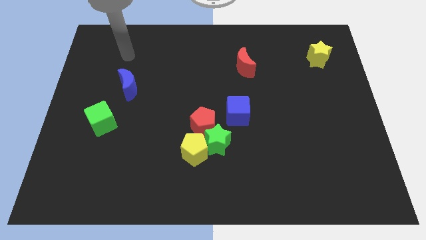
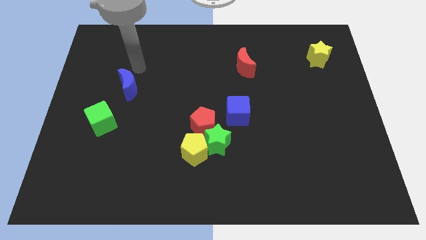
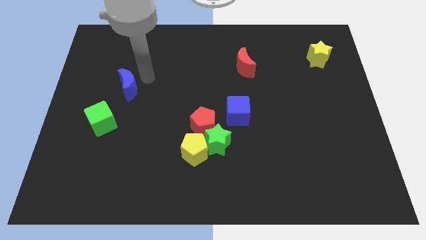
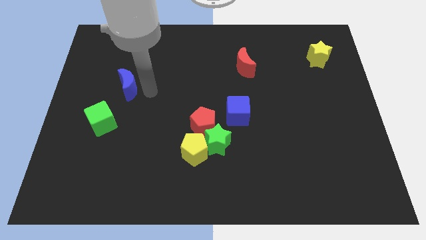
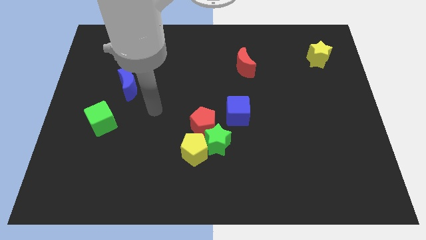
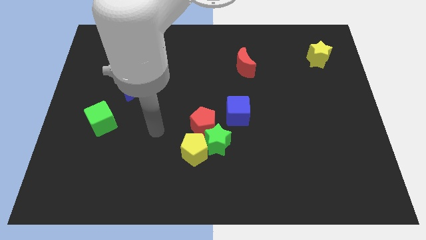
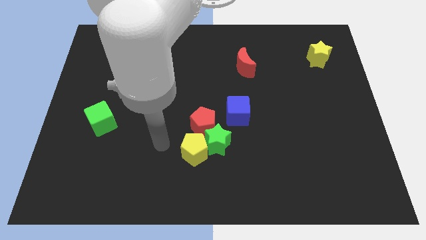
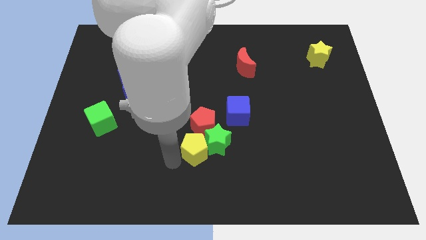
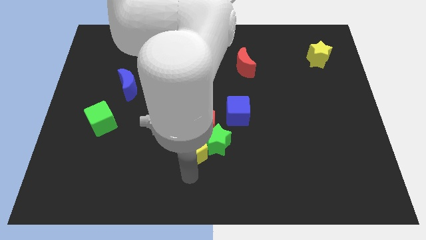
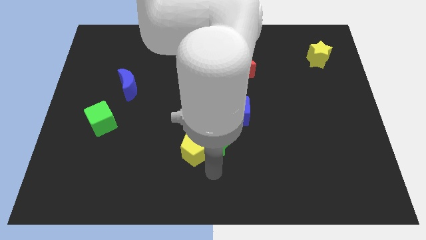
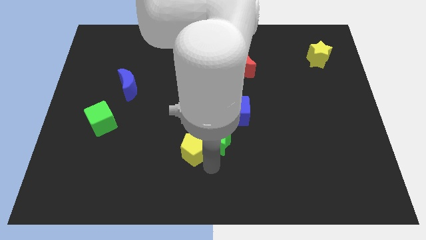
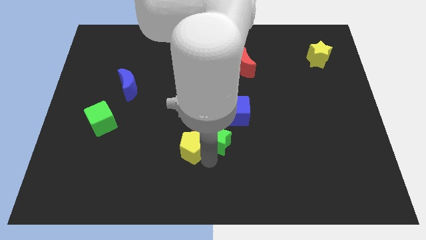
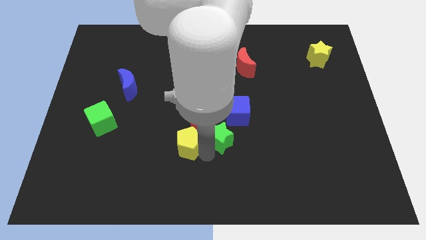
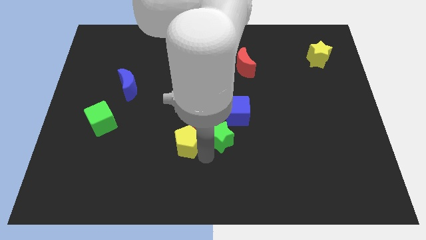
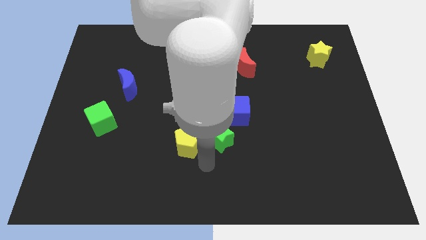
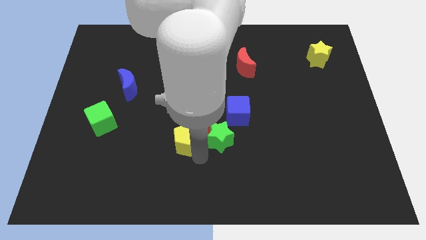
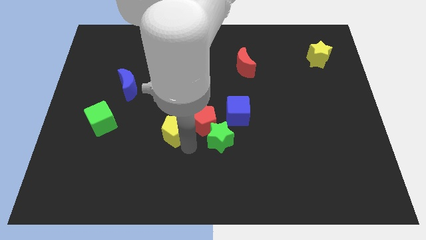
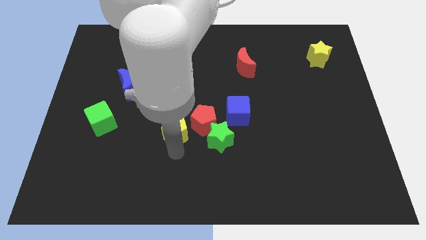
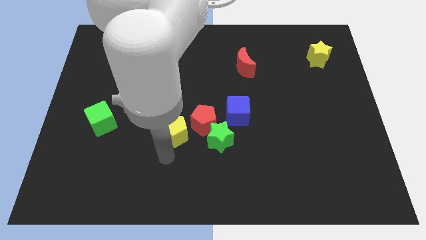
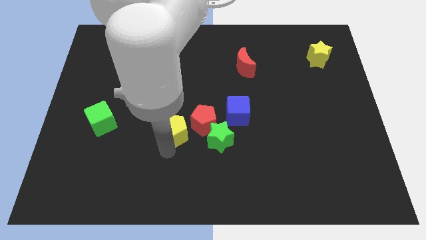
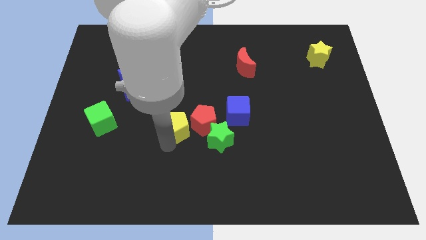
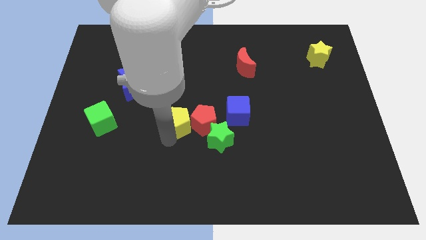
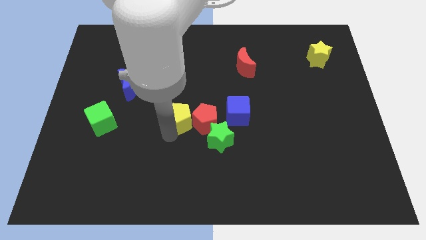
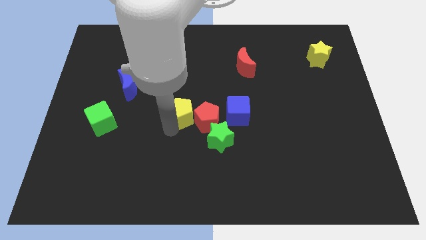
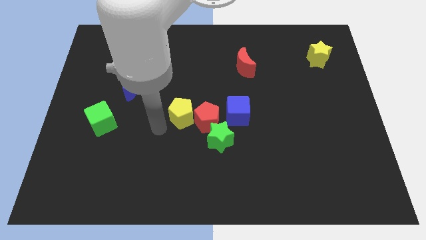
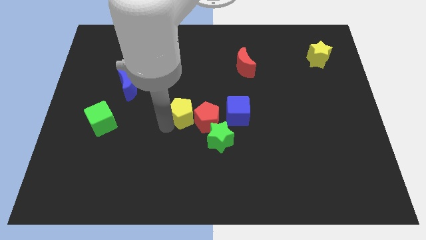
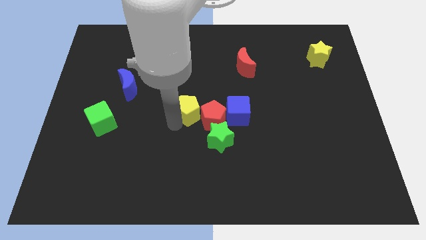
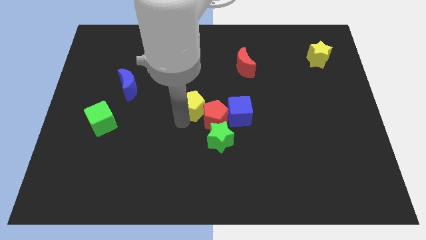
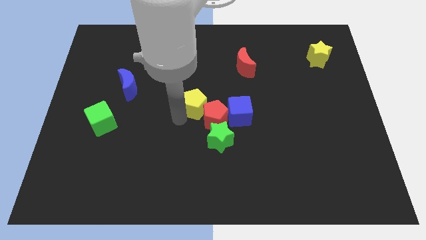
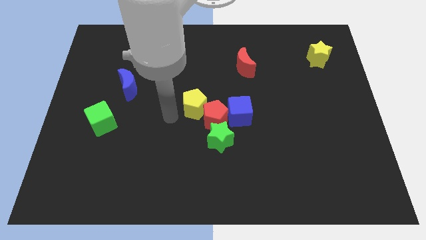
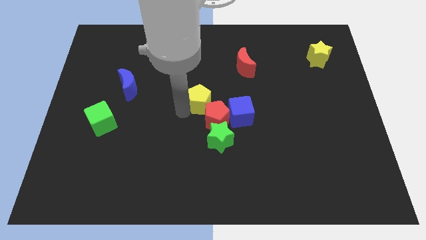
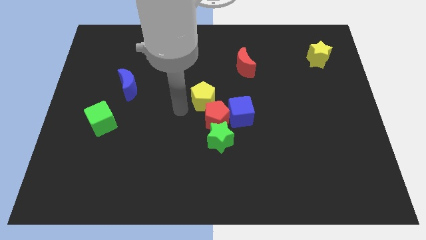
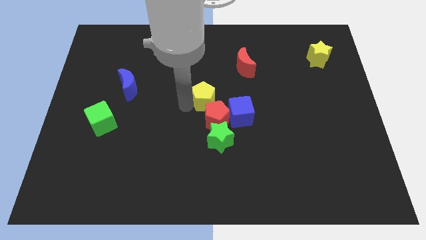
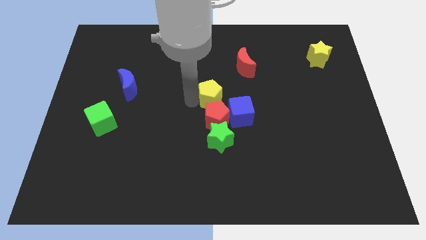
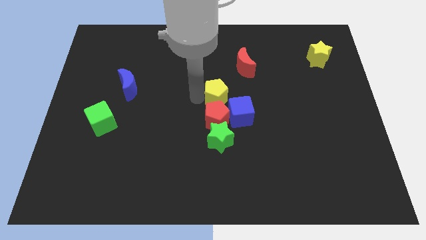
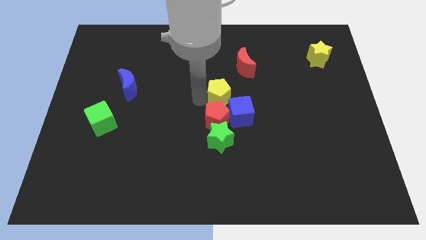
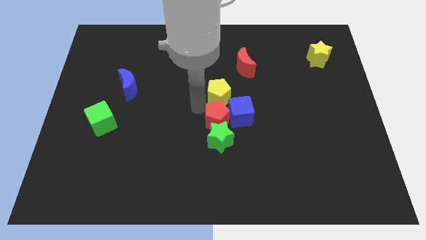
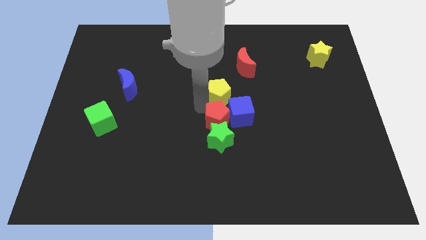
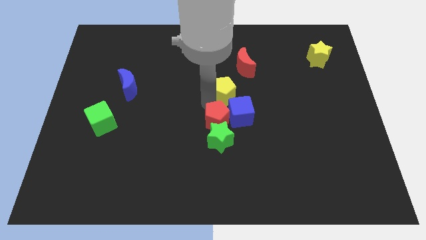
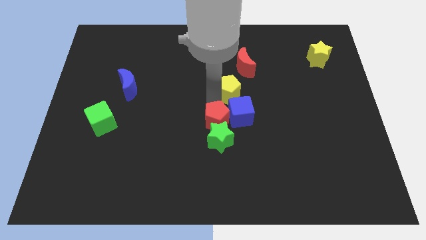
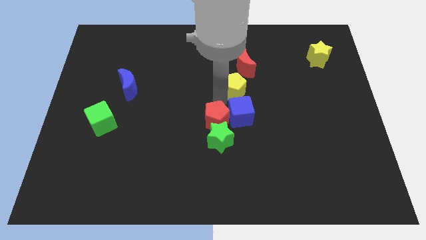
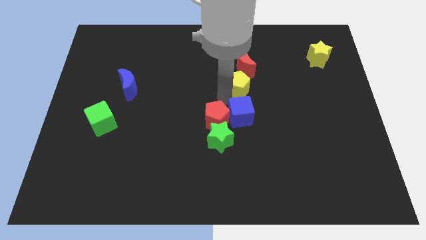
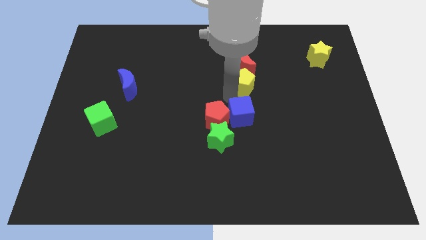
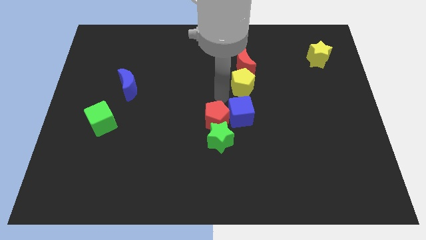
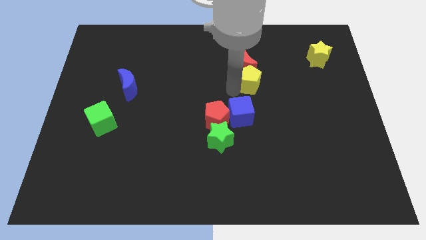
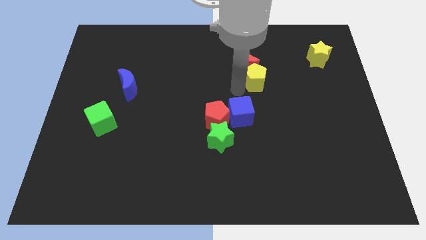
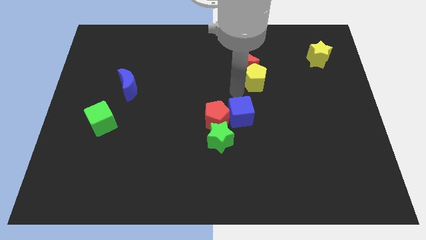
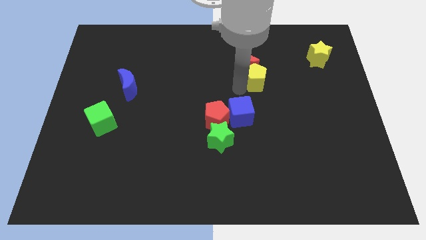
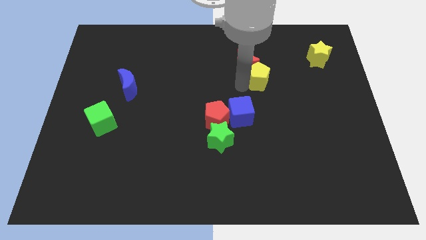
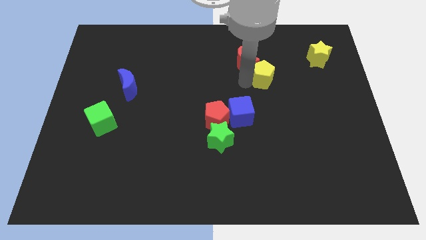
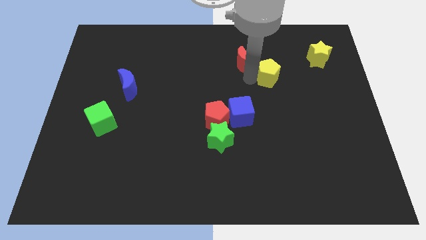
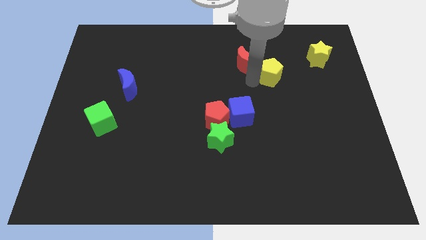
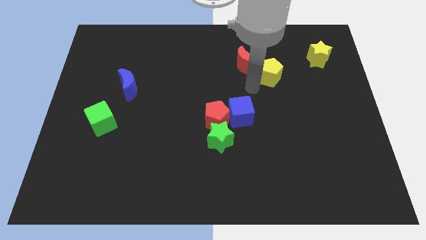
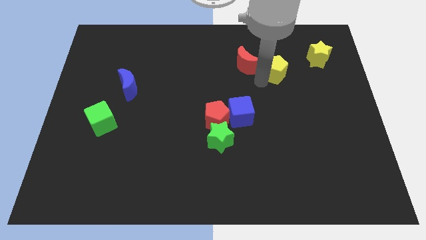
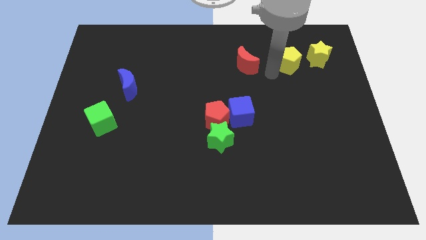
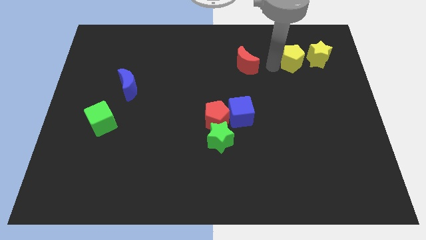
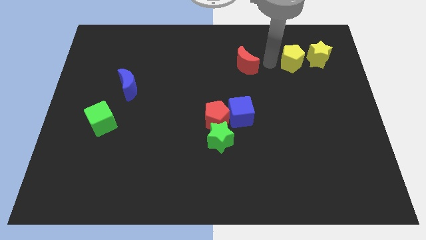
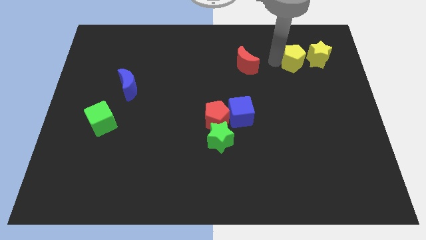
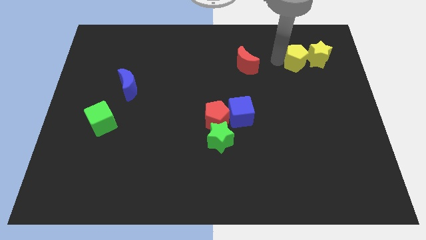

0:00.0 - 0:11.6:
slide the yellow pentagon towards the yellow star

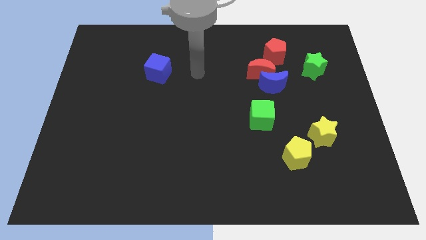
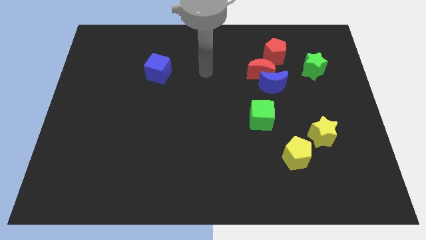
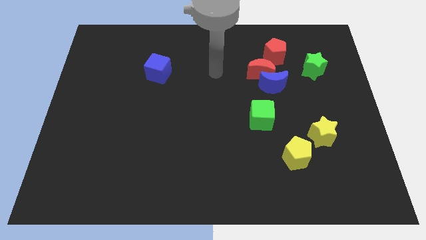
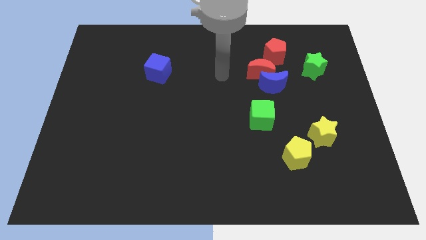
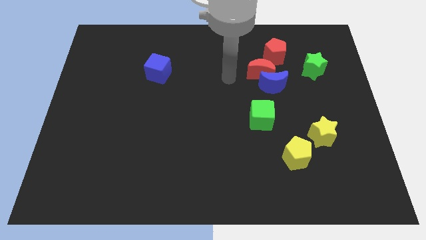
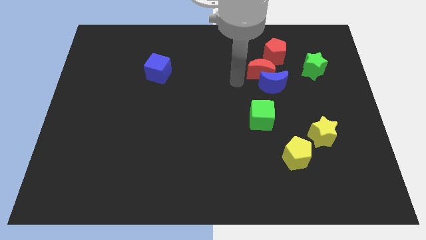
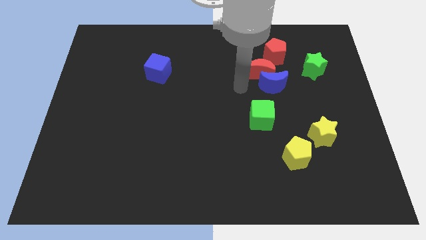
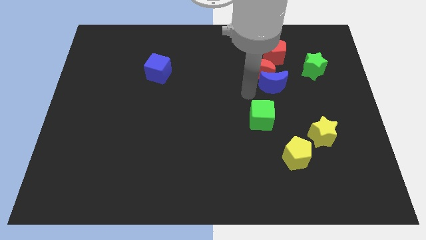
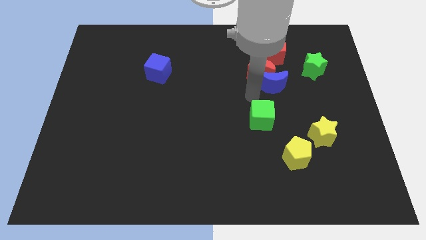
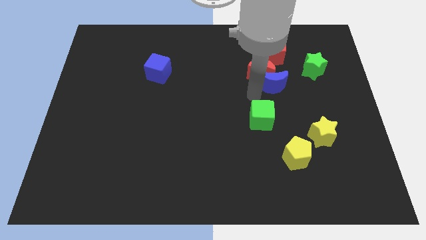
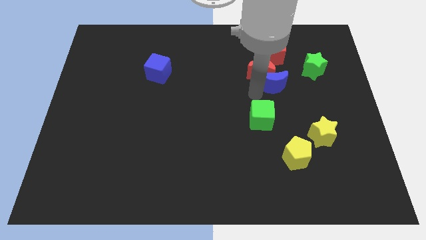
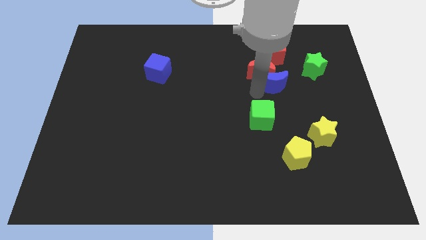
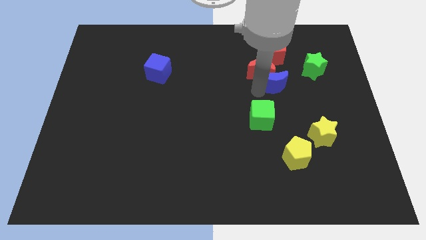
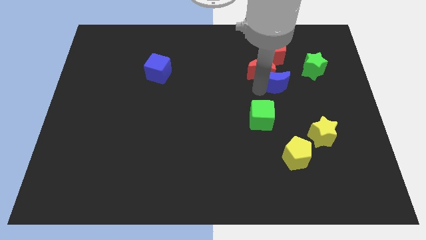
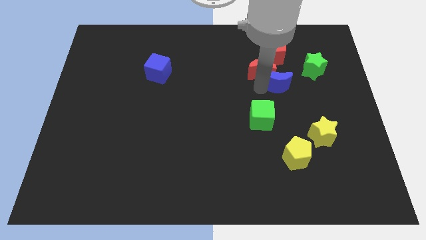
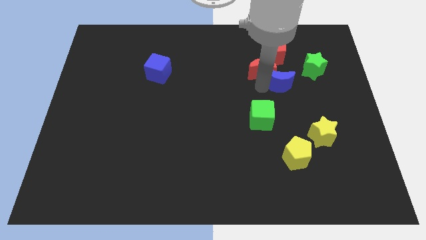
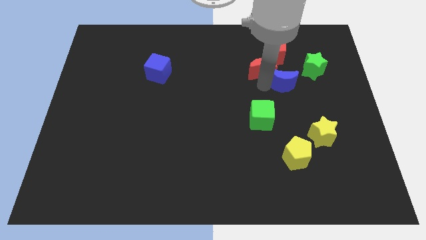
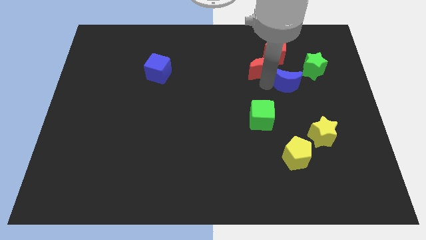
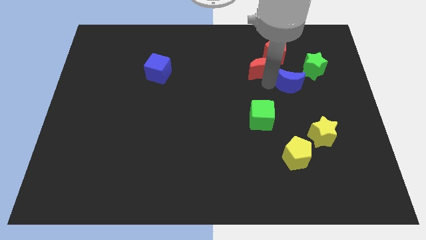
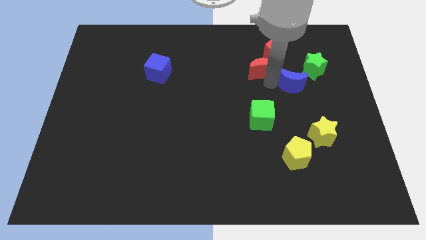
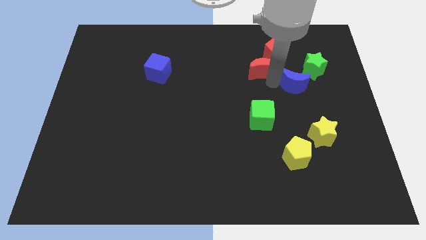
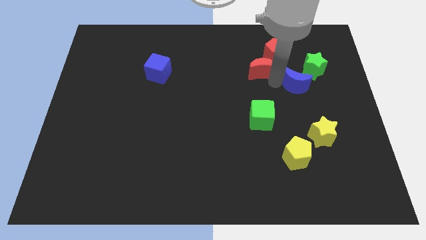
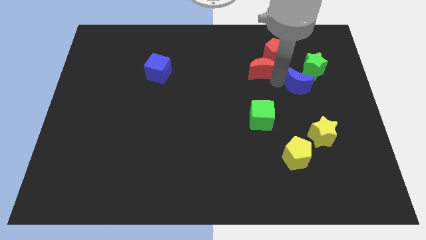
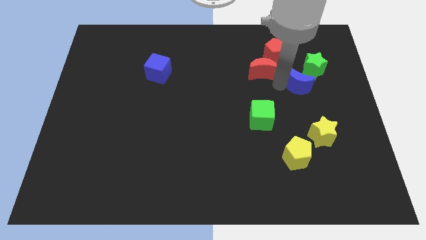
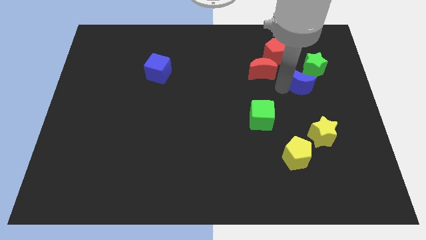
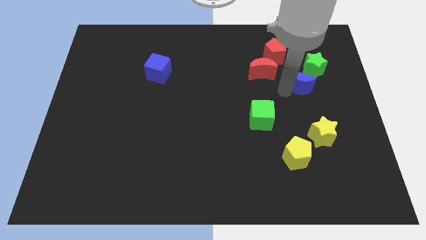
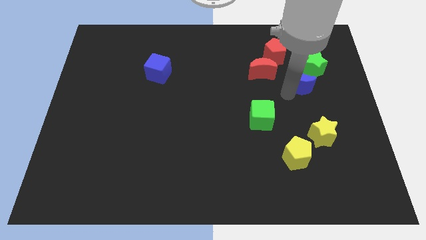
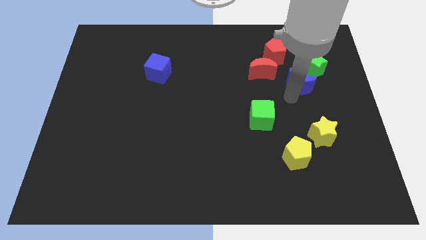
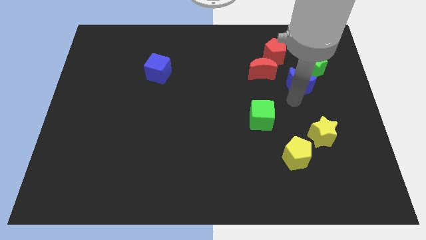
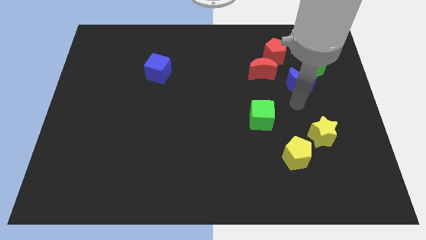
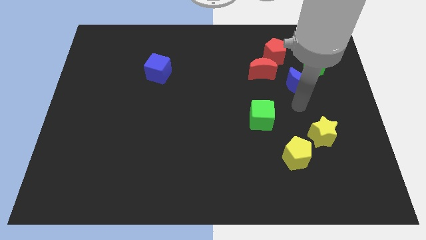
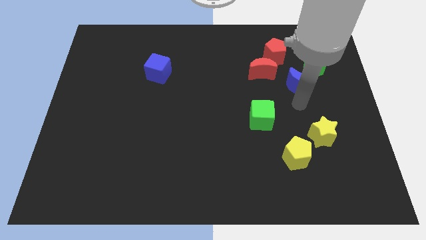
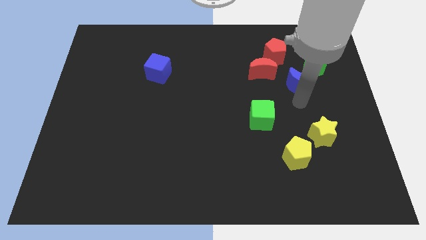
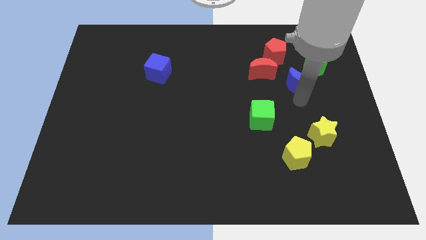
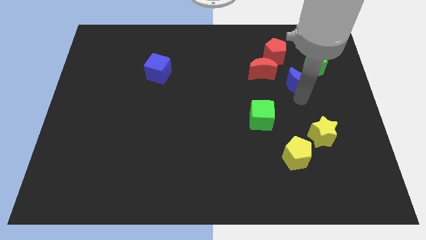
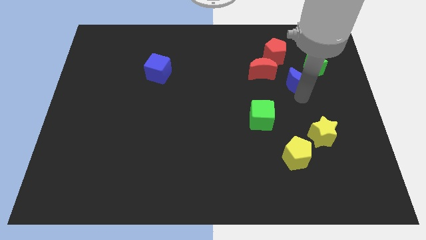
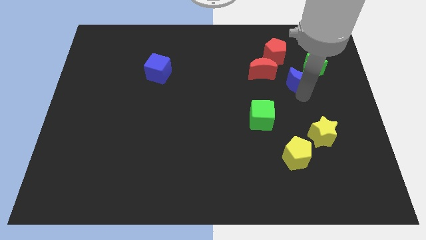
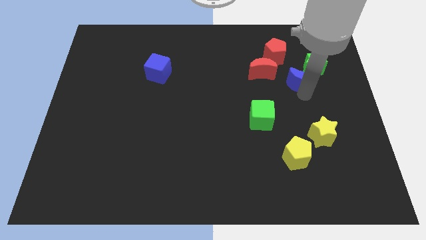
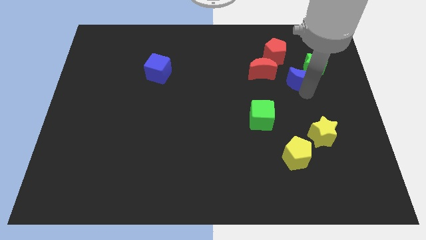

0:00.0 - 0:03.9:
slide the blue moon close to the green star
